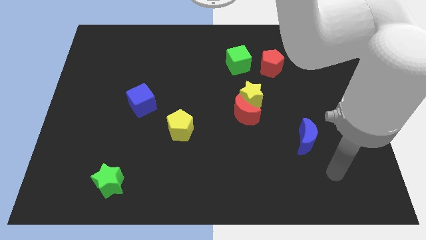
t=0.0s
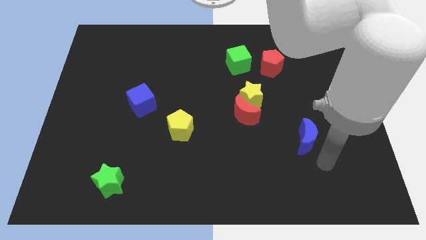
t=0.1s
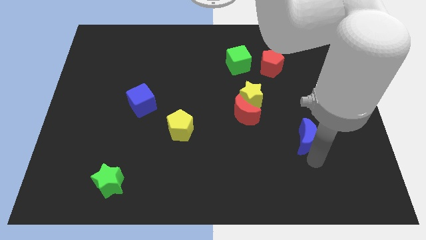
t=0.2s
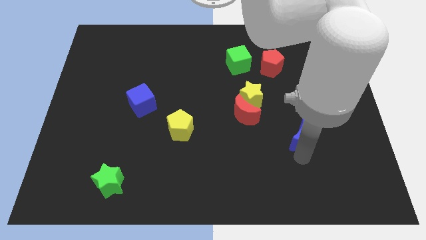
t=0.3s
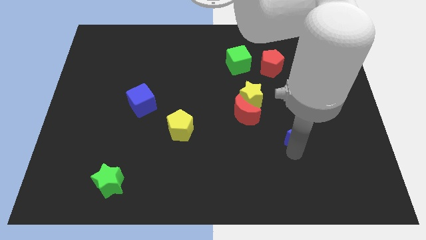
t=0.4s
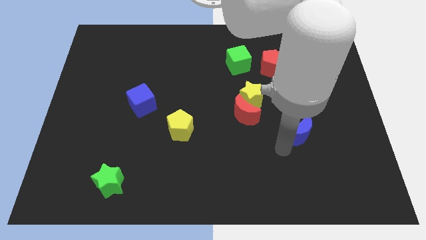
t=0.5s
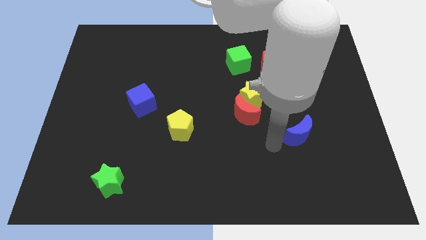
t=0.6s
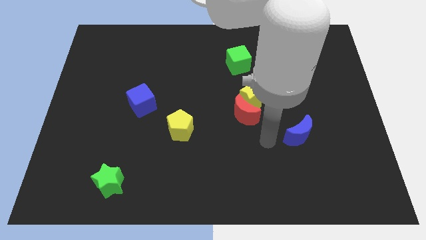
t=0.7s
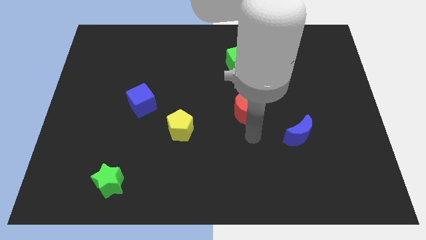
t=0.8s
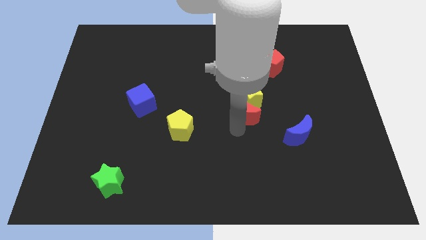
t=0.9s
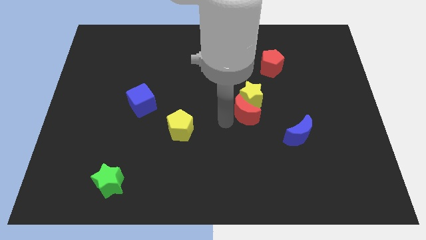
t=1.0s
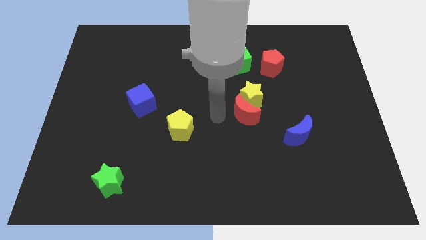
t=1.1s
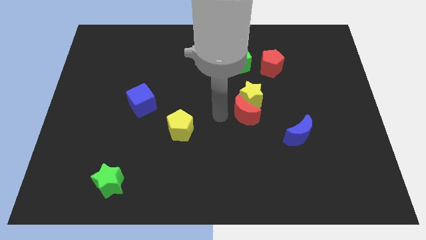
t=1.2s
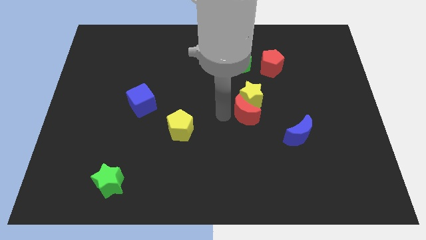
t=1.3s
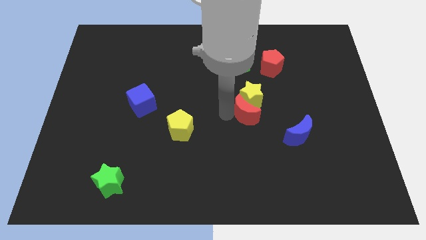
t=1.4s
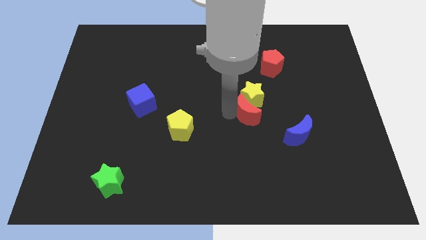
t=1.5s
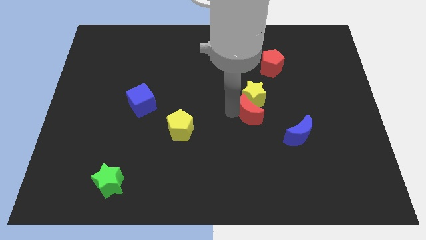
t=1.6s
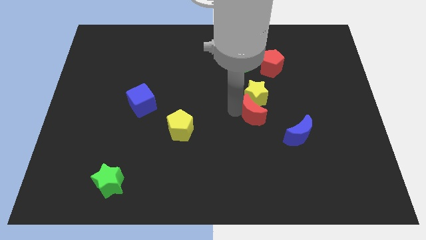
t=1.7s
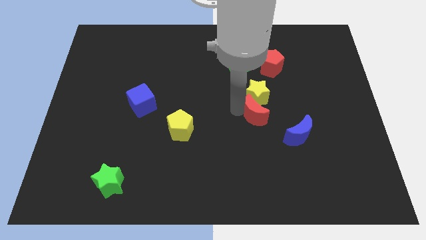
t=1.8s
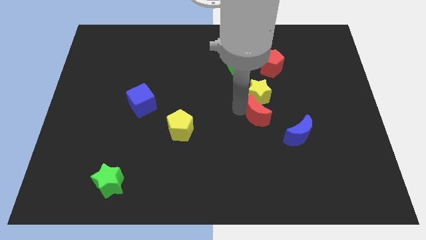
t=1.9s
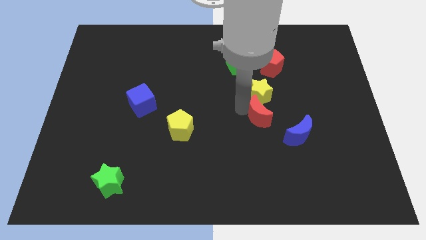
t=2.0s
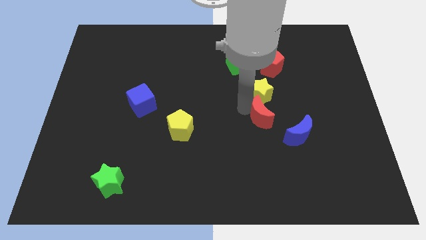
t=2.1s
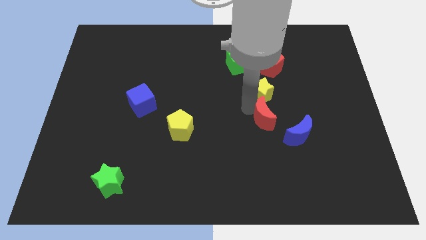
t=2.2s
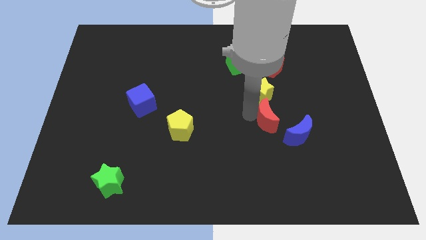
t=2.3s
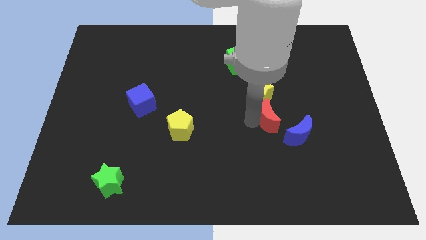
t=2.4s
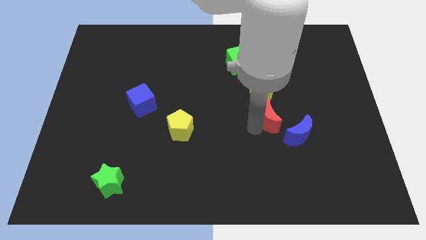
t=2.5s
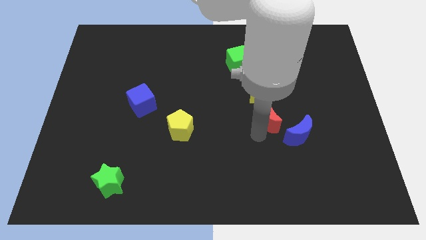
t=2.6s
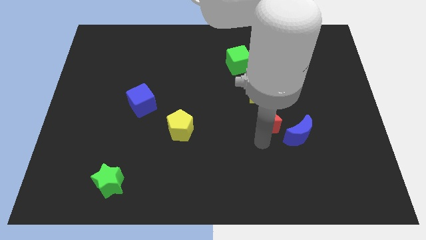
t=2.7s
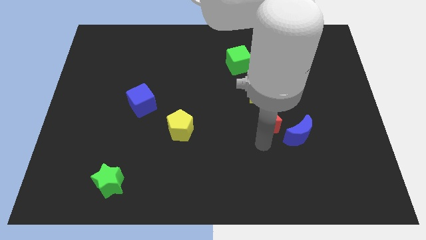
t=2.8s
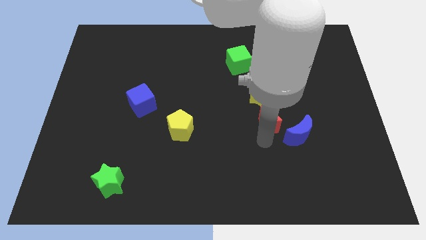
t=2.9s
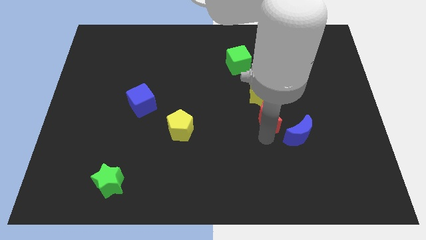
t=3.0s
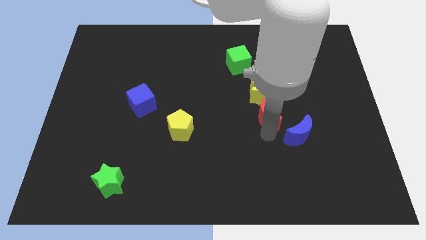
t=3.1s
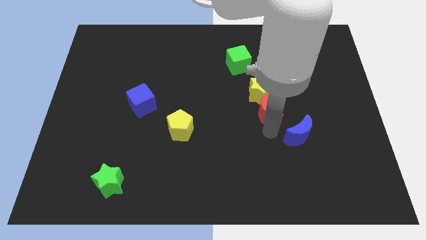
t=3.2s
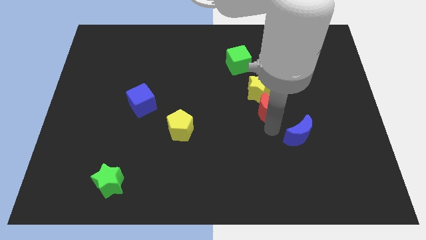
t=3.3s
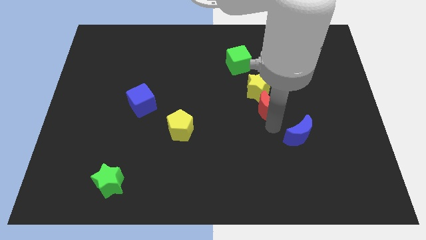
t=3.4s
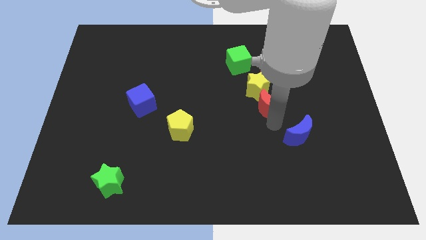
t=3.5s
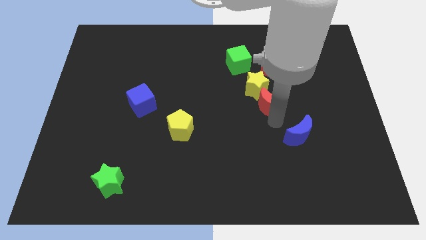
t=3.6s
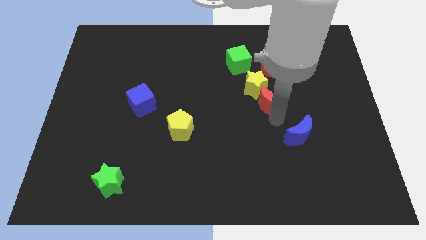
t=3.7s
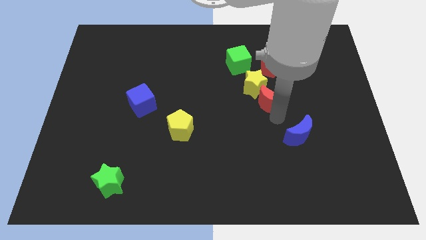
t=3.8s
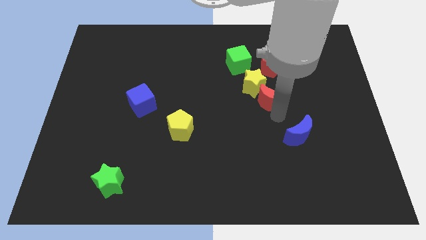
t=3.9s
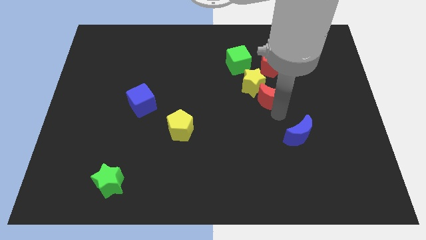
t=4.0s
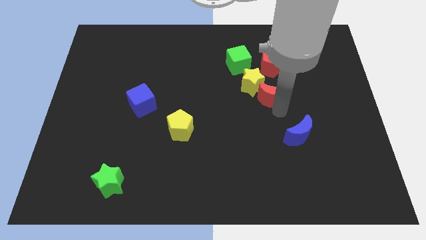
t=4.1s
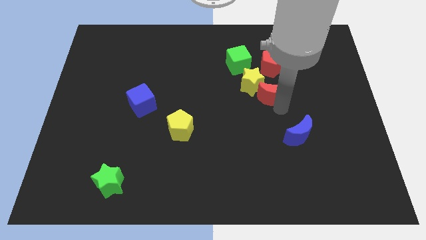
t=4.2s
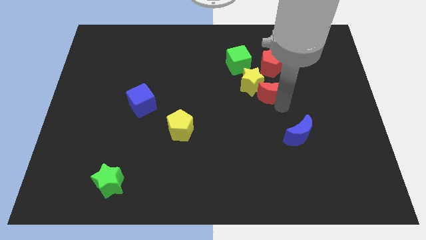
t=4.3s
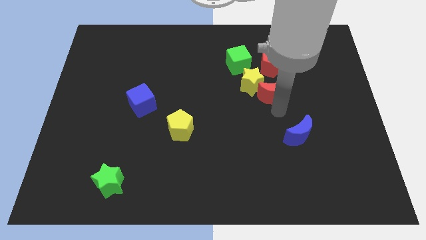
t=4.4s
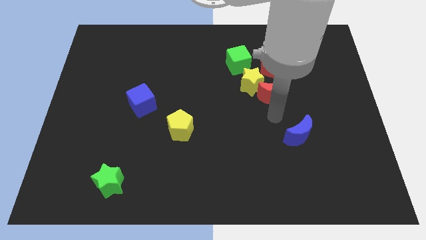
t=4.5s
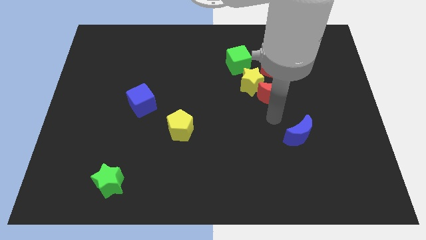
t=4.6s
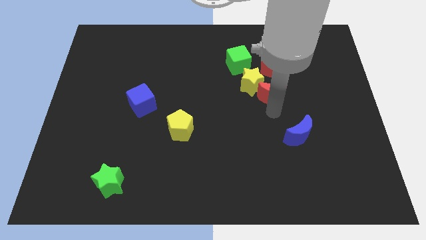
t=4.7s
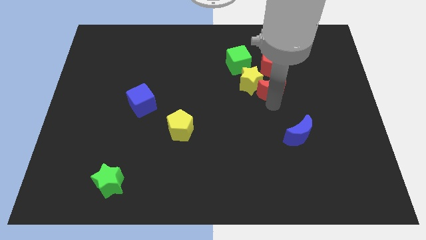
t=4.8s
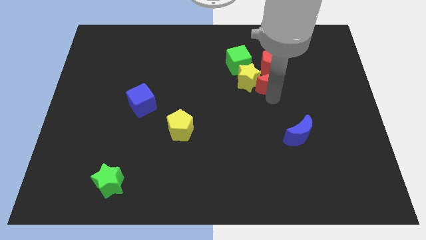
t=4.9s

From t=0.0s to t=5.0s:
move the red moon to the red pentagon

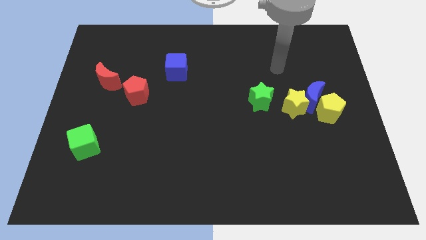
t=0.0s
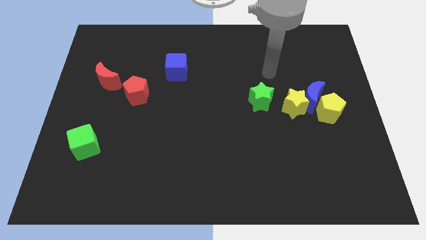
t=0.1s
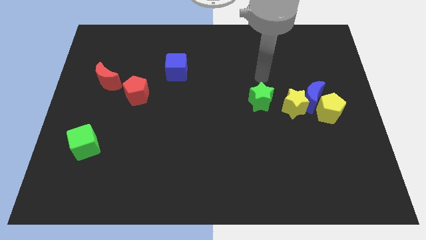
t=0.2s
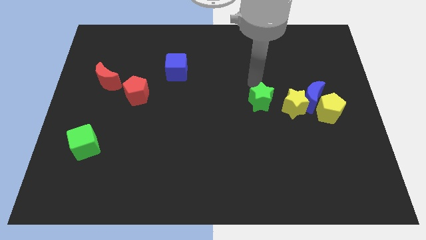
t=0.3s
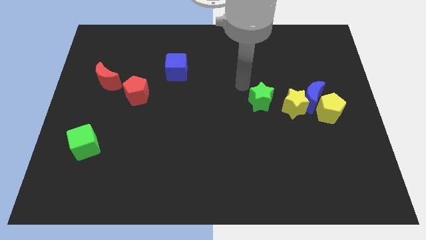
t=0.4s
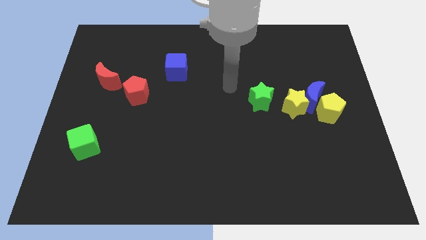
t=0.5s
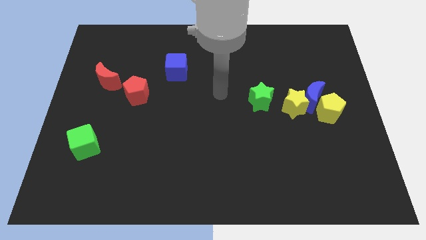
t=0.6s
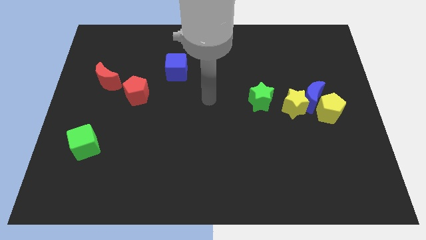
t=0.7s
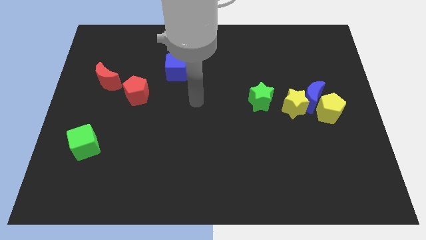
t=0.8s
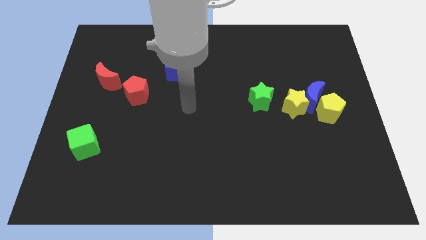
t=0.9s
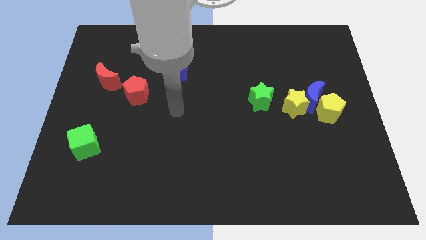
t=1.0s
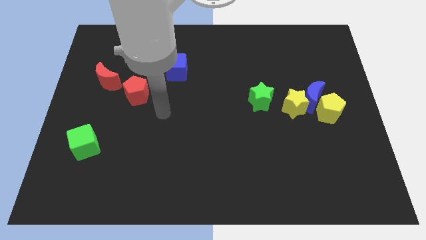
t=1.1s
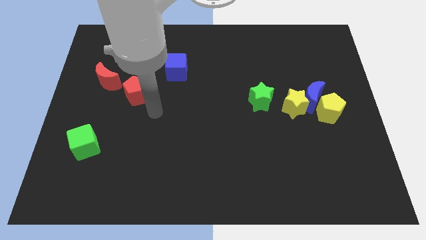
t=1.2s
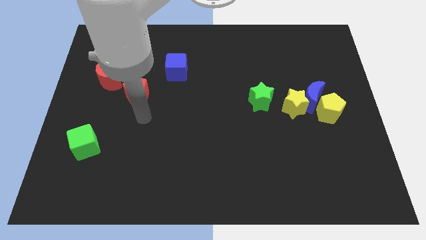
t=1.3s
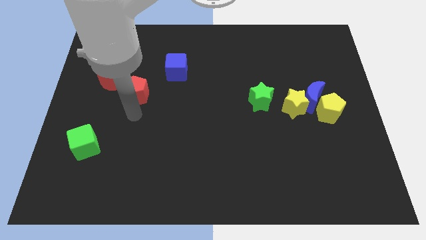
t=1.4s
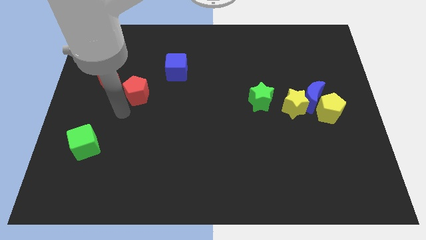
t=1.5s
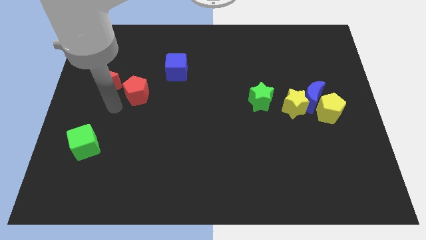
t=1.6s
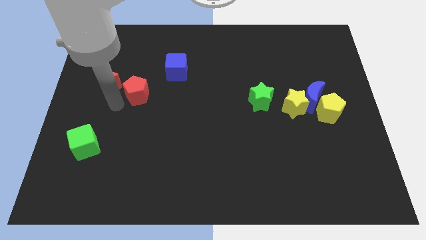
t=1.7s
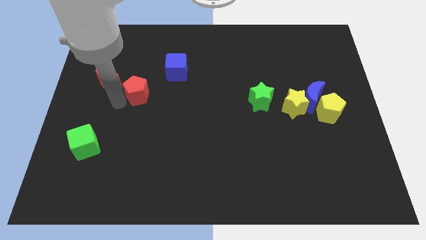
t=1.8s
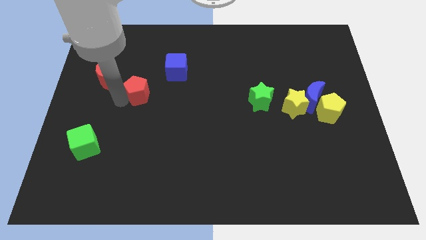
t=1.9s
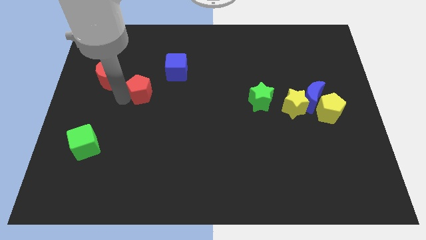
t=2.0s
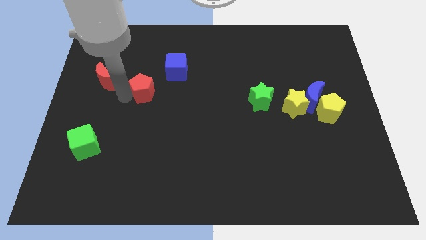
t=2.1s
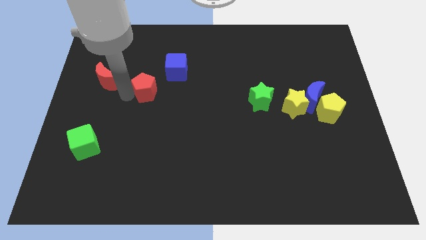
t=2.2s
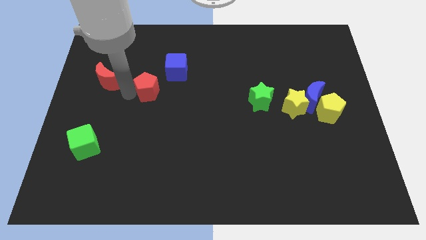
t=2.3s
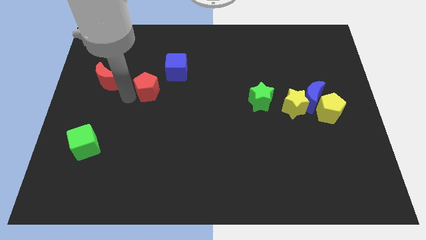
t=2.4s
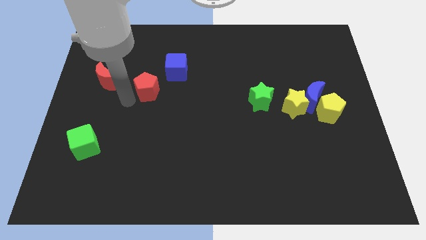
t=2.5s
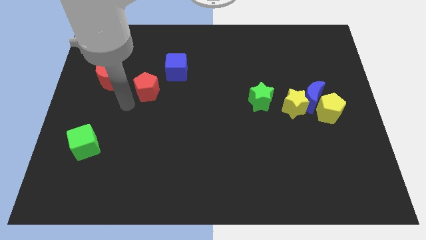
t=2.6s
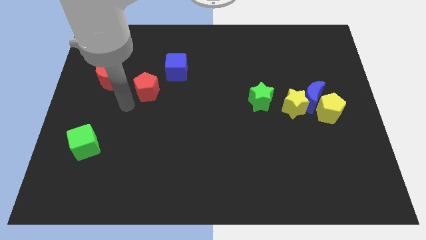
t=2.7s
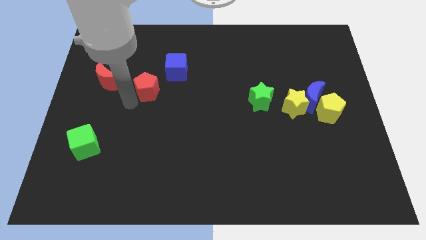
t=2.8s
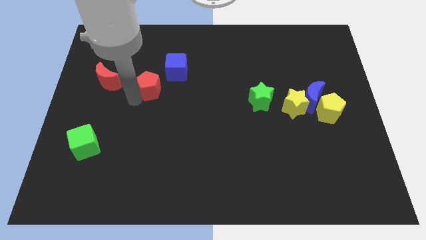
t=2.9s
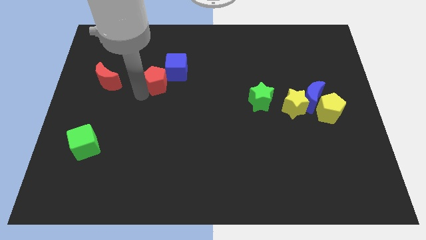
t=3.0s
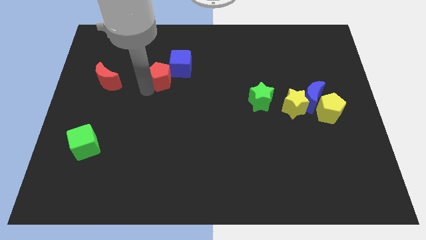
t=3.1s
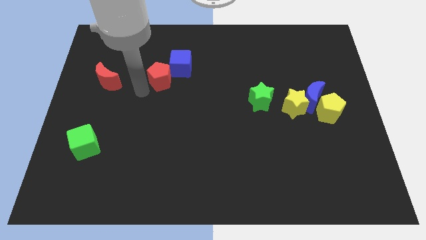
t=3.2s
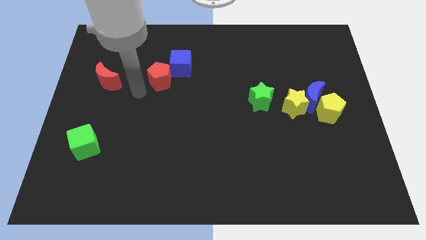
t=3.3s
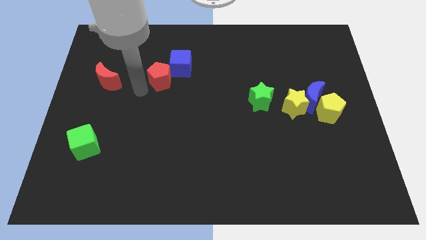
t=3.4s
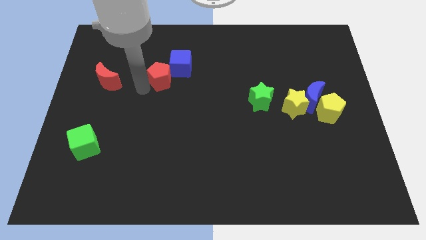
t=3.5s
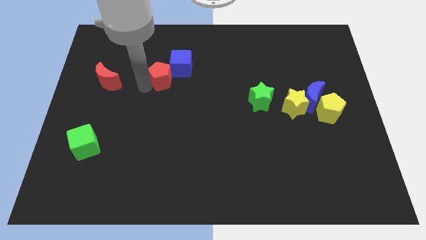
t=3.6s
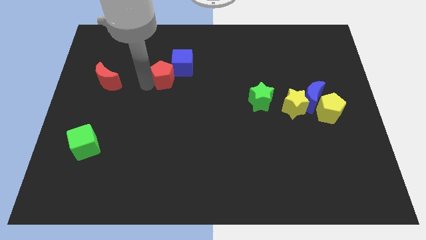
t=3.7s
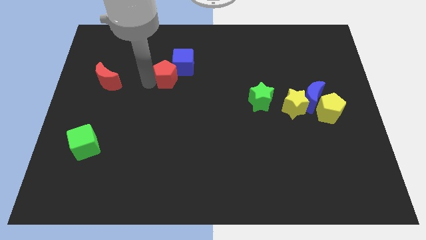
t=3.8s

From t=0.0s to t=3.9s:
push the red pentagon towards the blue cube
